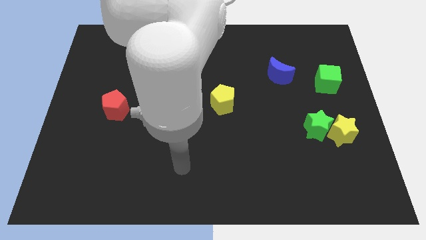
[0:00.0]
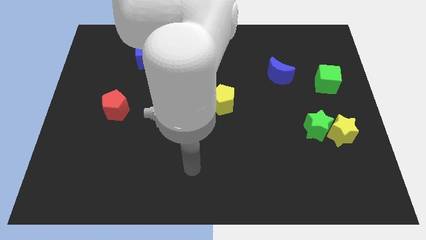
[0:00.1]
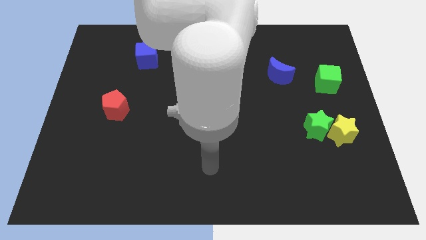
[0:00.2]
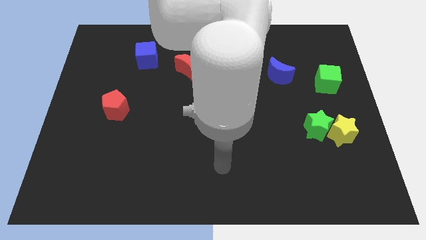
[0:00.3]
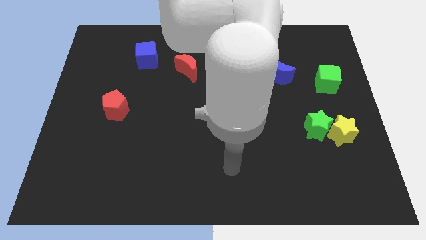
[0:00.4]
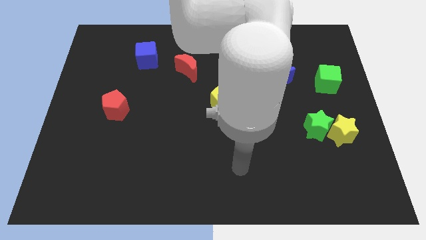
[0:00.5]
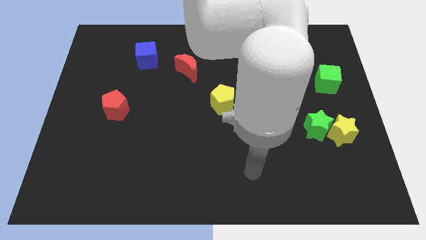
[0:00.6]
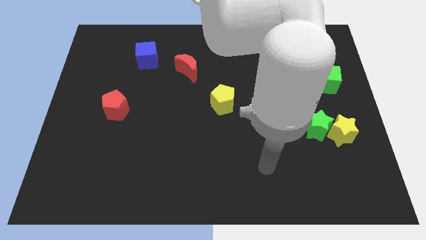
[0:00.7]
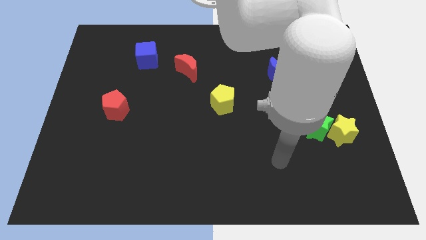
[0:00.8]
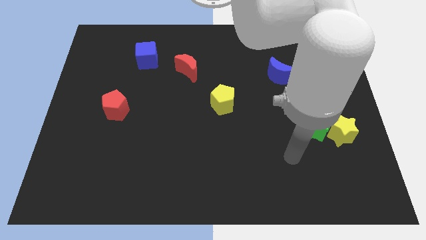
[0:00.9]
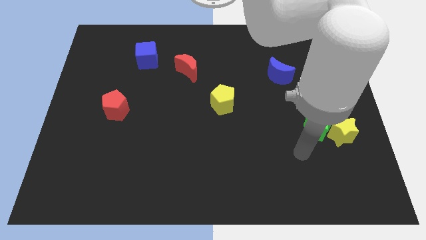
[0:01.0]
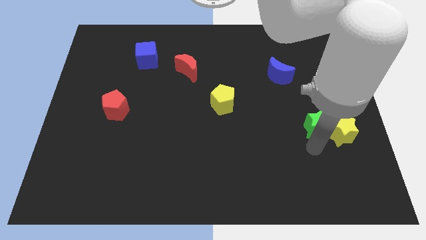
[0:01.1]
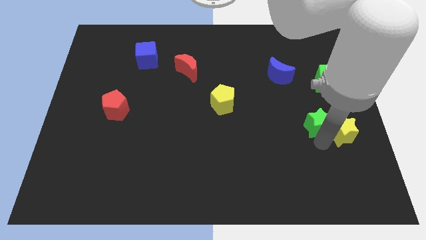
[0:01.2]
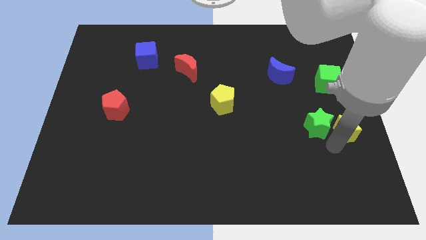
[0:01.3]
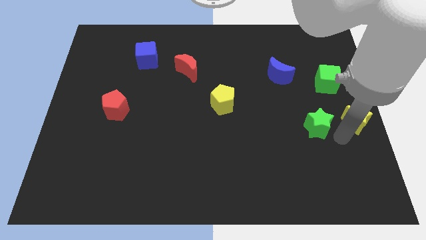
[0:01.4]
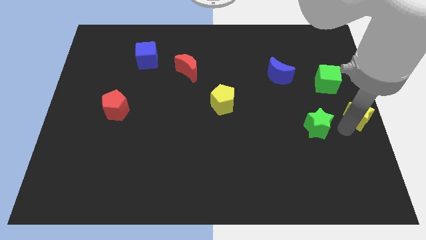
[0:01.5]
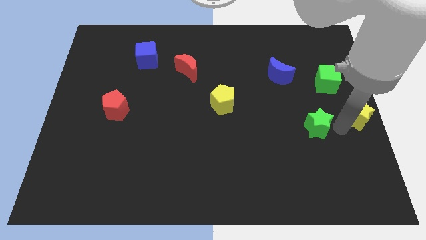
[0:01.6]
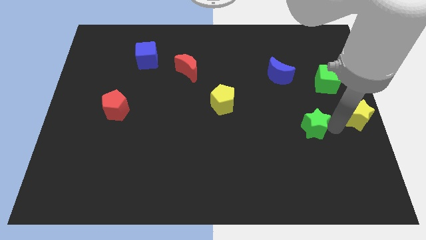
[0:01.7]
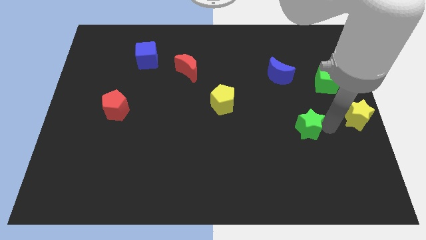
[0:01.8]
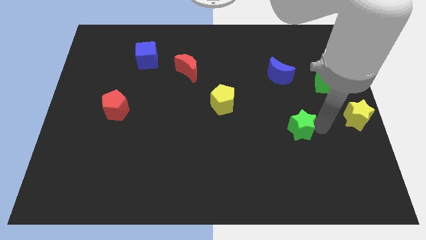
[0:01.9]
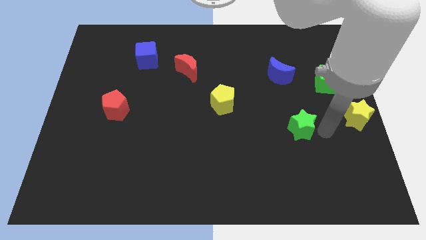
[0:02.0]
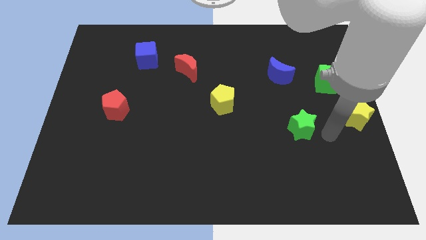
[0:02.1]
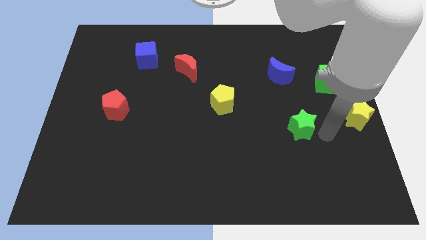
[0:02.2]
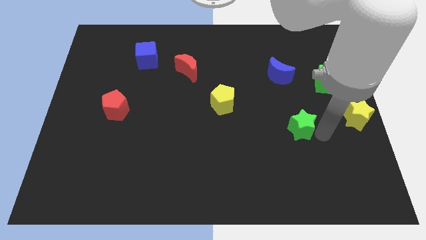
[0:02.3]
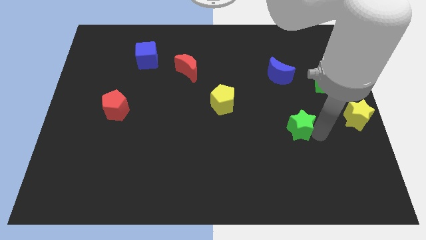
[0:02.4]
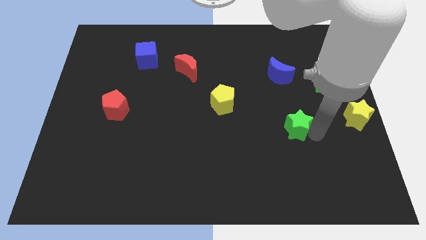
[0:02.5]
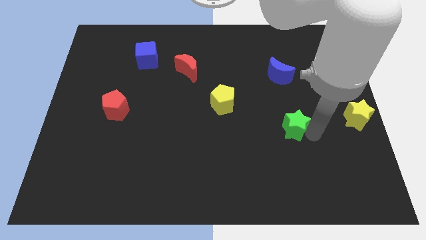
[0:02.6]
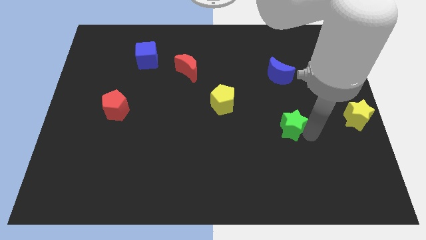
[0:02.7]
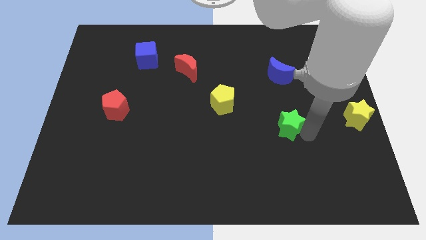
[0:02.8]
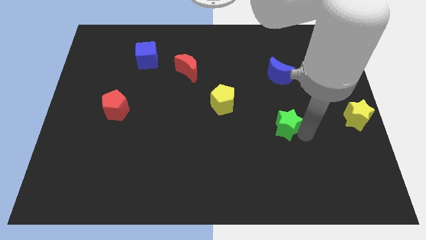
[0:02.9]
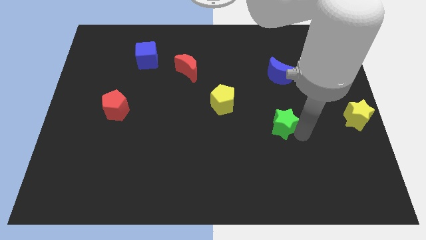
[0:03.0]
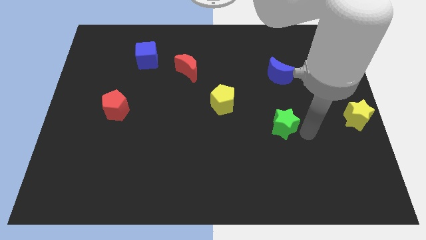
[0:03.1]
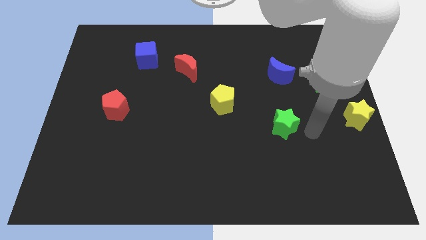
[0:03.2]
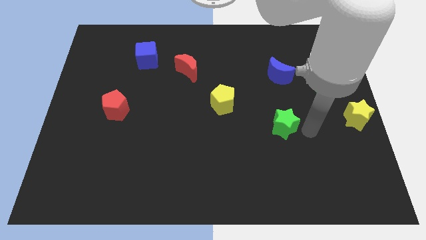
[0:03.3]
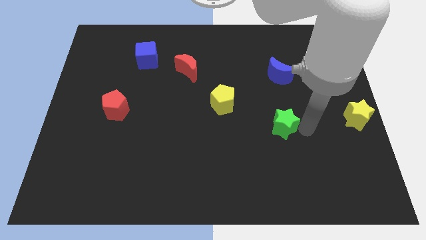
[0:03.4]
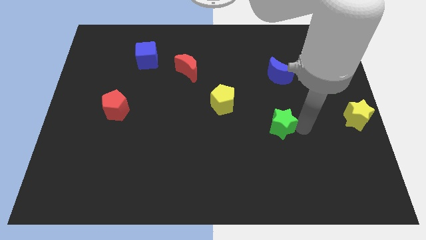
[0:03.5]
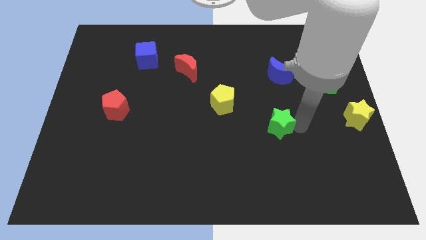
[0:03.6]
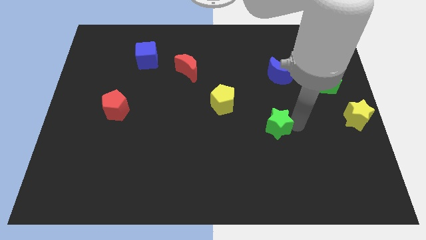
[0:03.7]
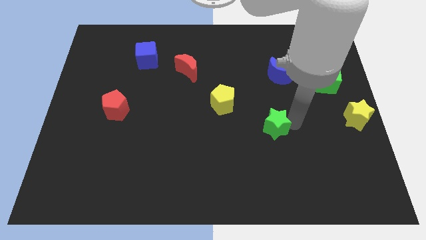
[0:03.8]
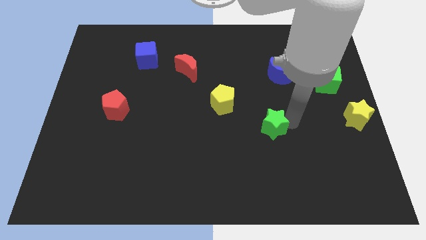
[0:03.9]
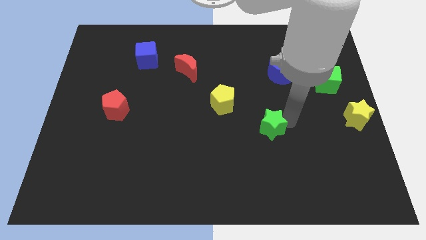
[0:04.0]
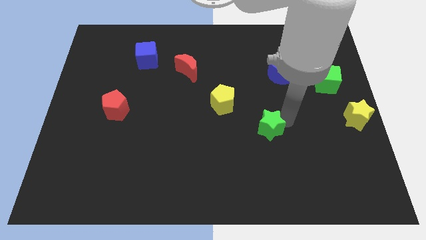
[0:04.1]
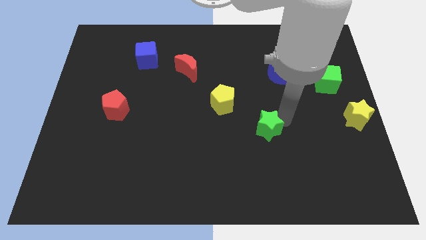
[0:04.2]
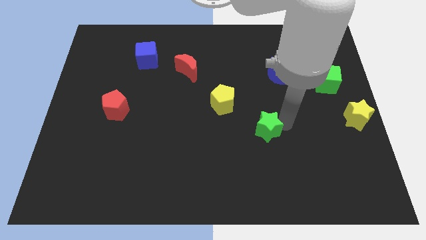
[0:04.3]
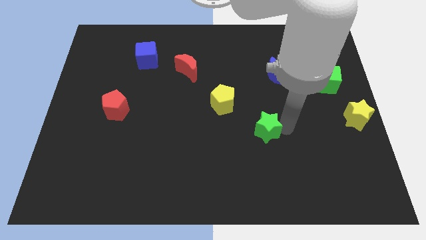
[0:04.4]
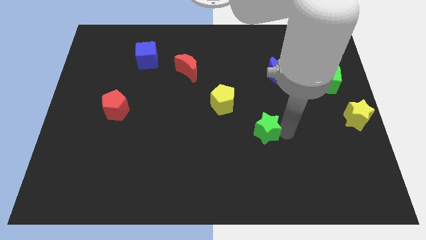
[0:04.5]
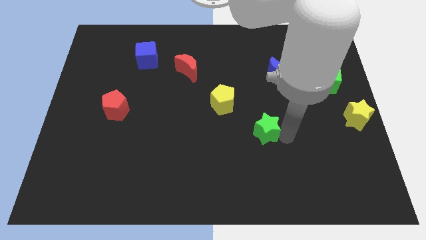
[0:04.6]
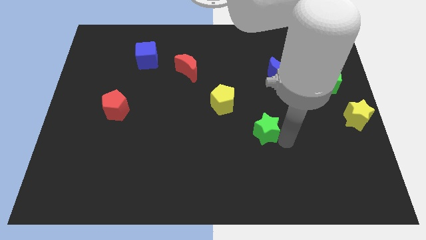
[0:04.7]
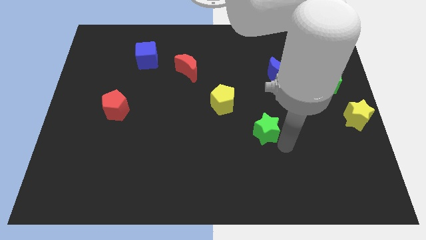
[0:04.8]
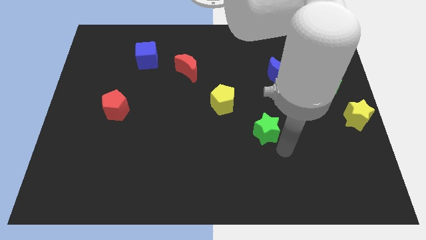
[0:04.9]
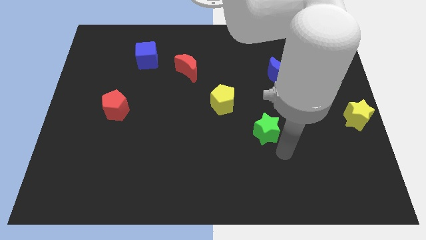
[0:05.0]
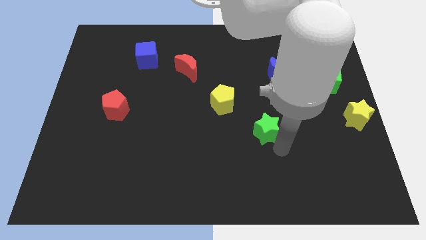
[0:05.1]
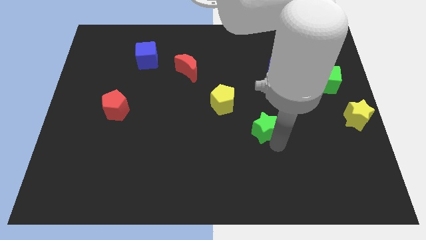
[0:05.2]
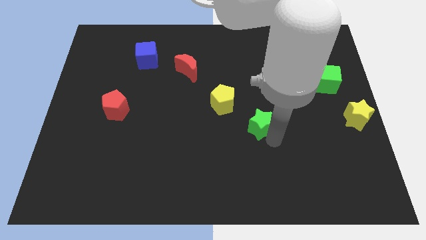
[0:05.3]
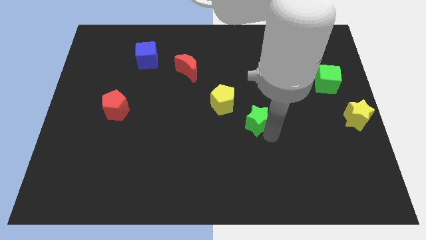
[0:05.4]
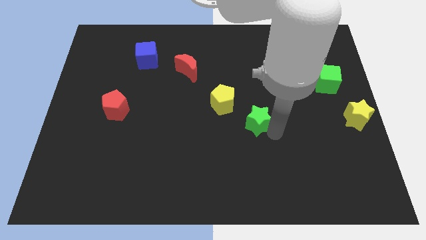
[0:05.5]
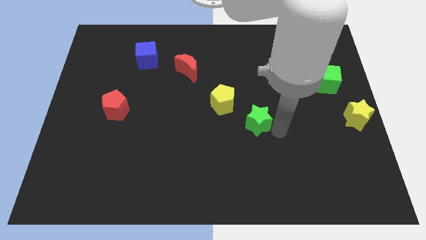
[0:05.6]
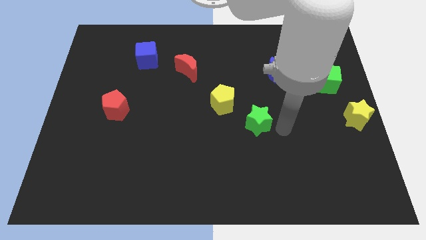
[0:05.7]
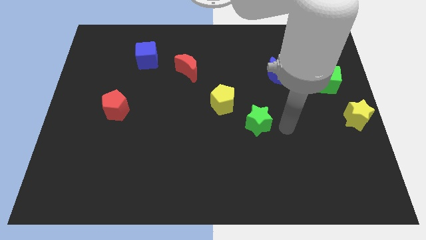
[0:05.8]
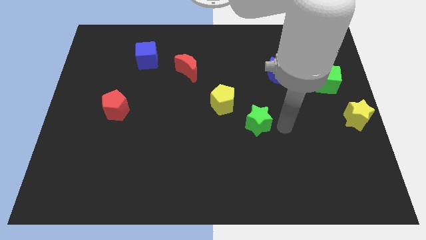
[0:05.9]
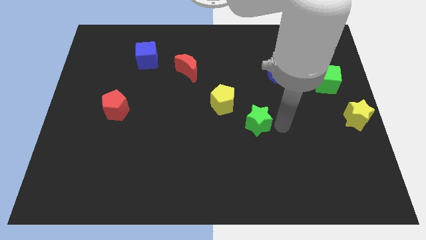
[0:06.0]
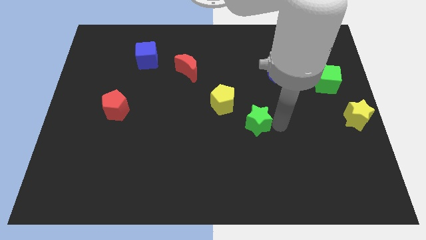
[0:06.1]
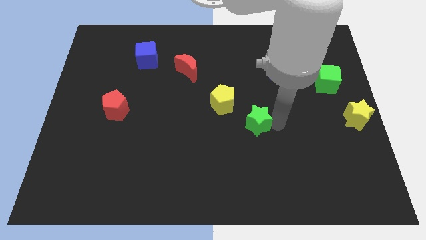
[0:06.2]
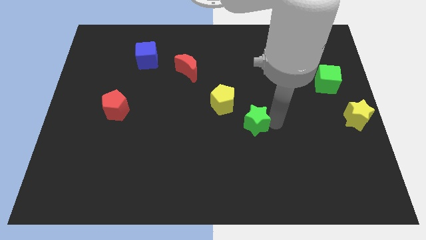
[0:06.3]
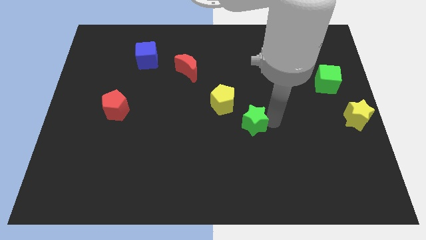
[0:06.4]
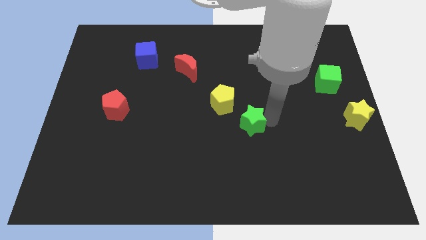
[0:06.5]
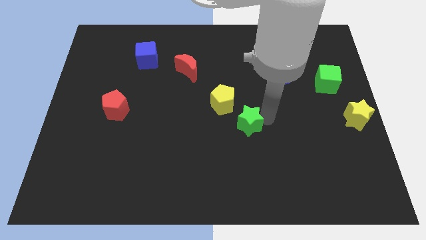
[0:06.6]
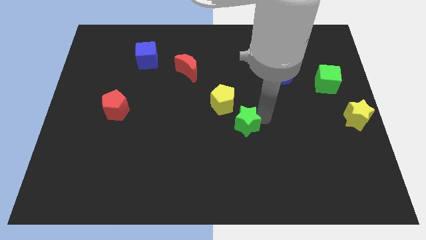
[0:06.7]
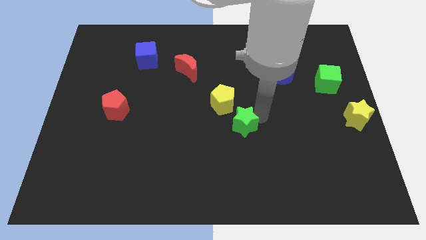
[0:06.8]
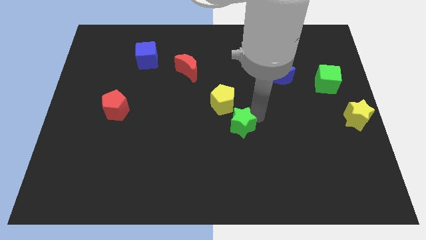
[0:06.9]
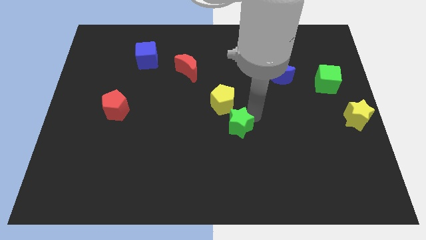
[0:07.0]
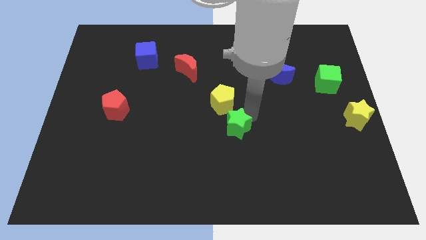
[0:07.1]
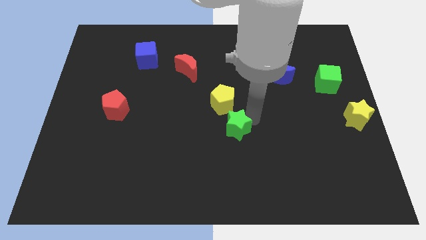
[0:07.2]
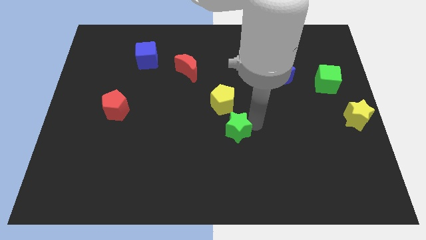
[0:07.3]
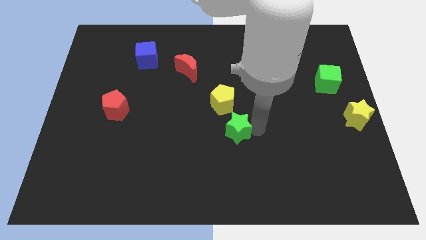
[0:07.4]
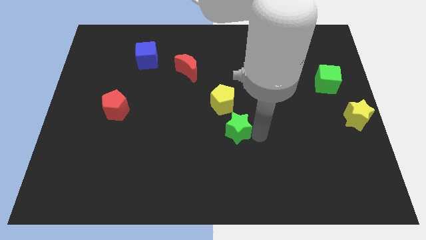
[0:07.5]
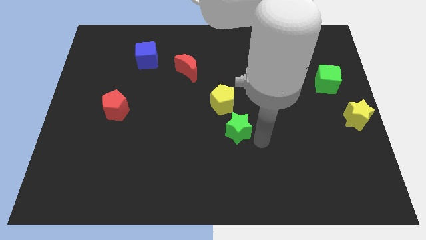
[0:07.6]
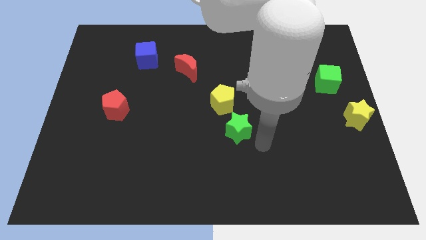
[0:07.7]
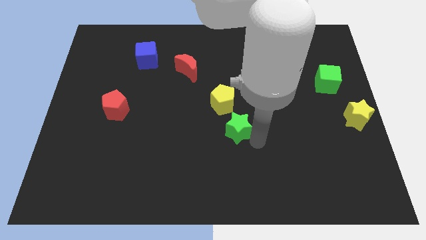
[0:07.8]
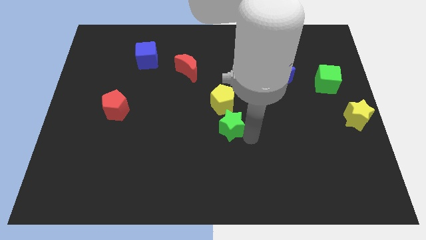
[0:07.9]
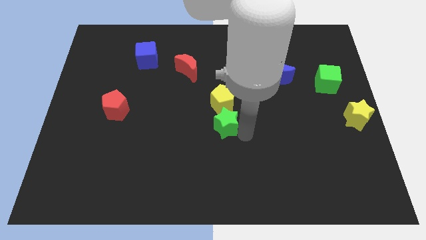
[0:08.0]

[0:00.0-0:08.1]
move the green star left
